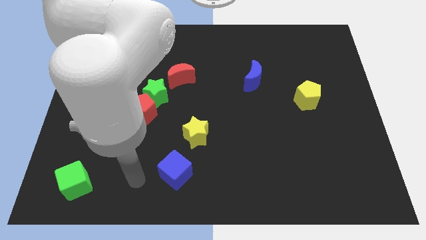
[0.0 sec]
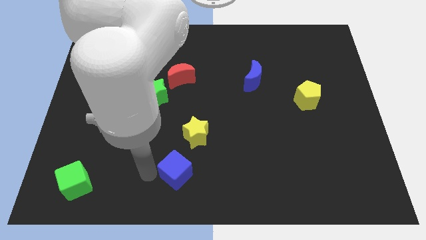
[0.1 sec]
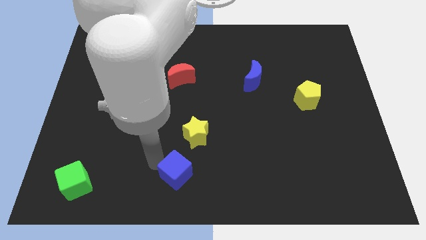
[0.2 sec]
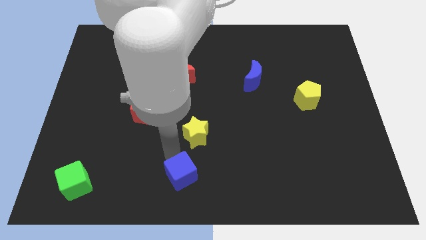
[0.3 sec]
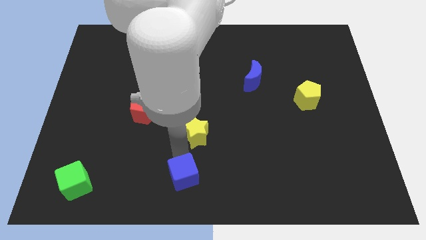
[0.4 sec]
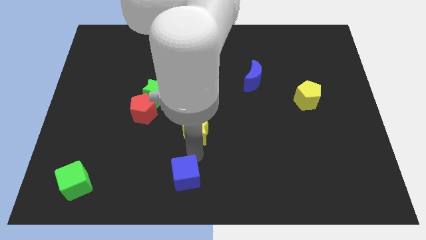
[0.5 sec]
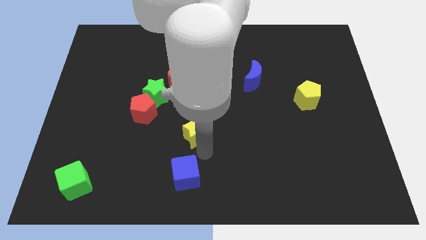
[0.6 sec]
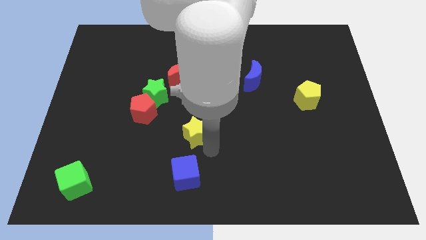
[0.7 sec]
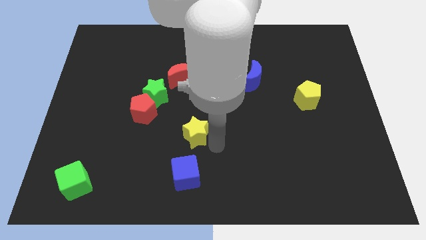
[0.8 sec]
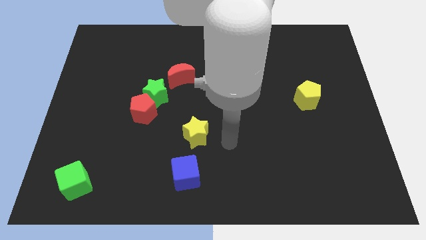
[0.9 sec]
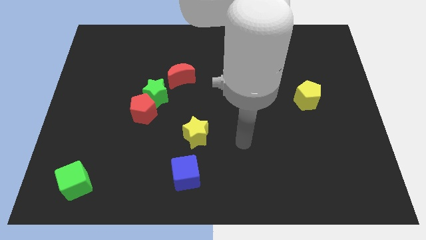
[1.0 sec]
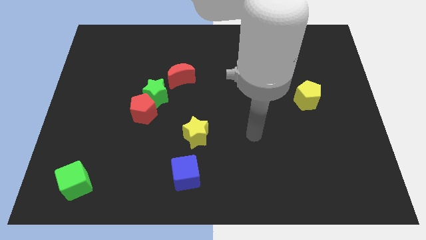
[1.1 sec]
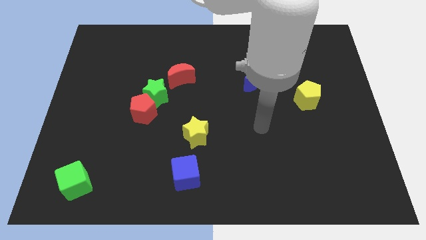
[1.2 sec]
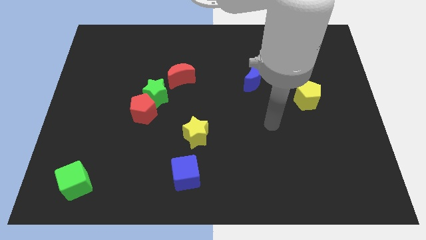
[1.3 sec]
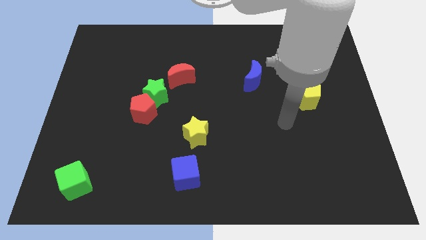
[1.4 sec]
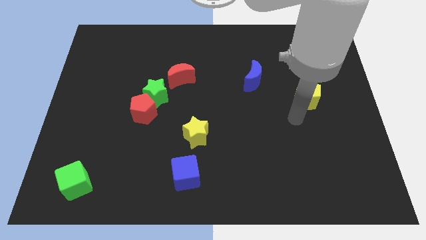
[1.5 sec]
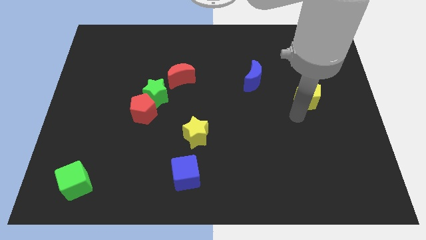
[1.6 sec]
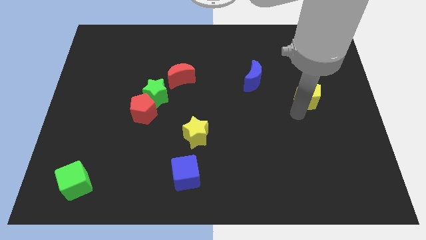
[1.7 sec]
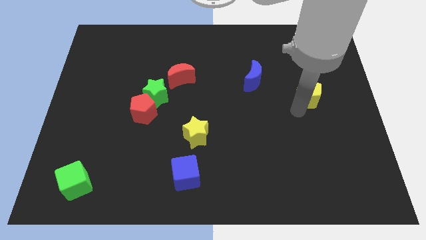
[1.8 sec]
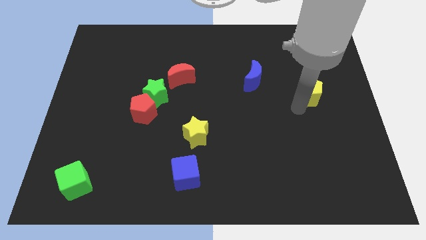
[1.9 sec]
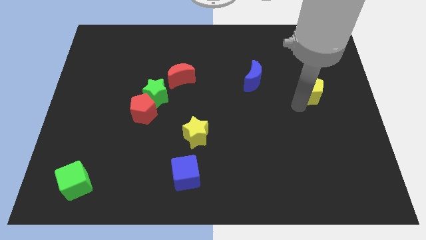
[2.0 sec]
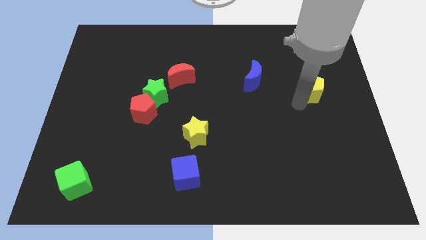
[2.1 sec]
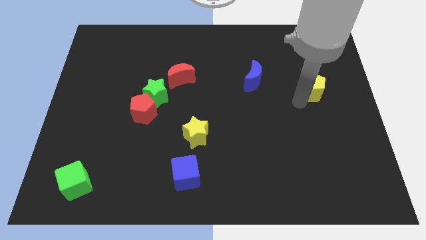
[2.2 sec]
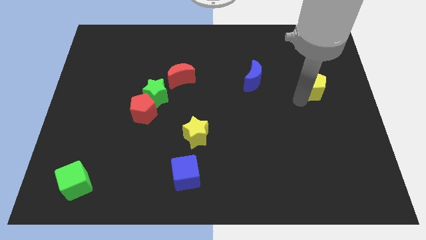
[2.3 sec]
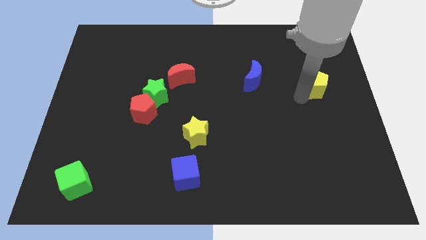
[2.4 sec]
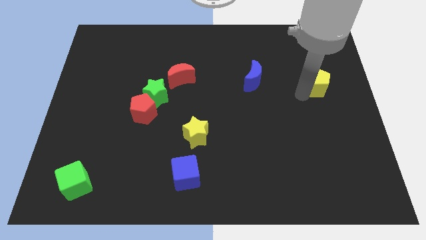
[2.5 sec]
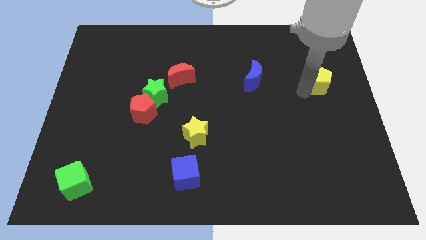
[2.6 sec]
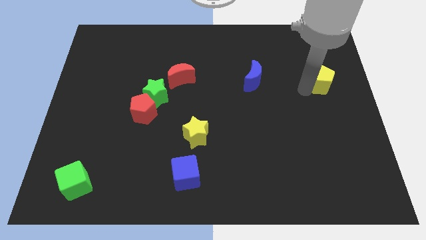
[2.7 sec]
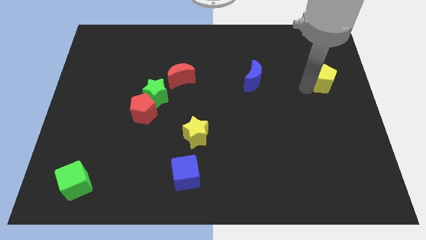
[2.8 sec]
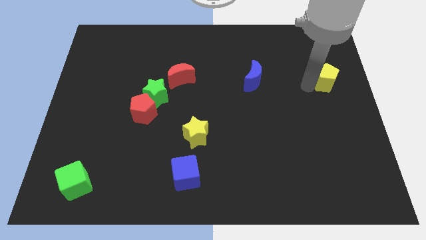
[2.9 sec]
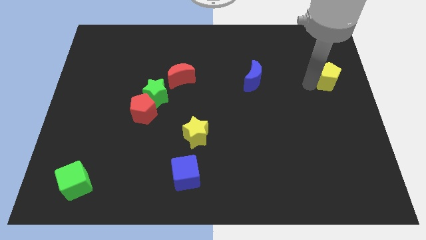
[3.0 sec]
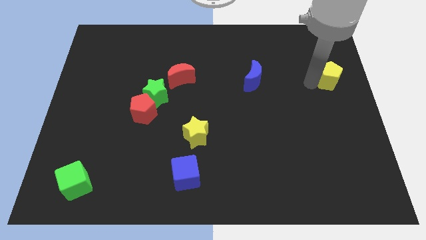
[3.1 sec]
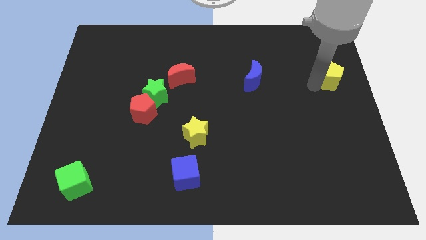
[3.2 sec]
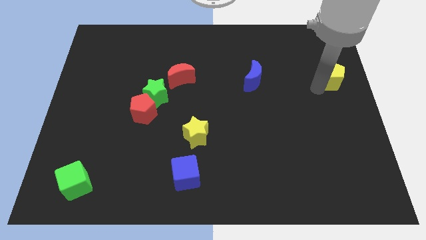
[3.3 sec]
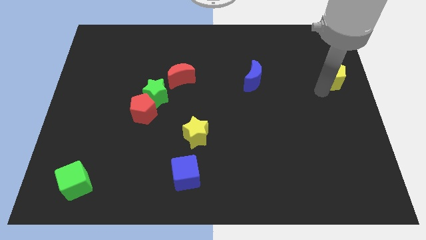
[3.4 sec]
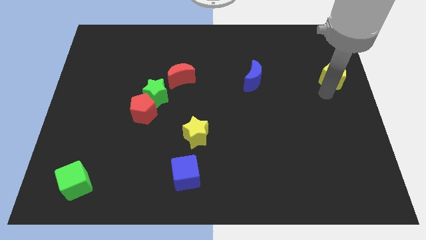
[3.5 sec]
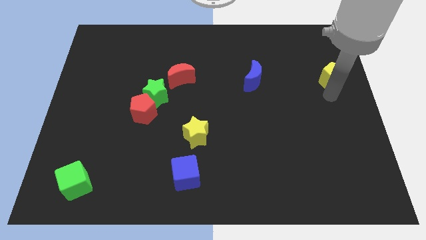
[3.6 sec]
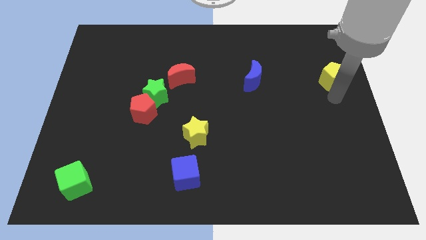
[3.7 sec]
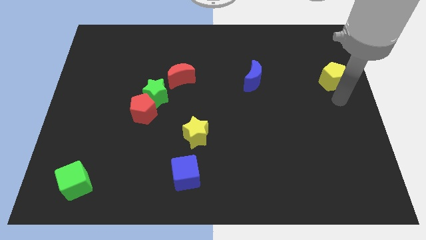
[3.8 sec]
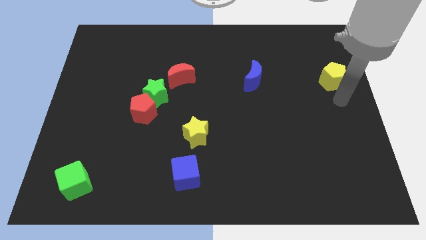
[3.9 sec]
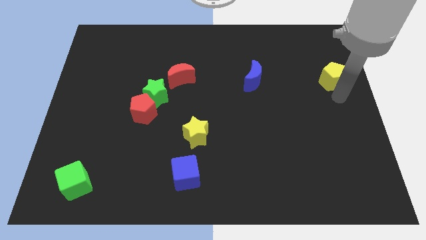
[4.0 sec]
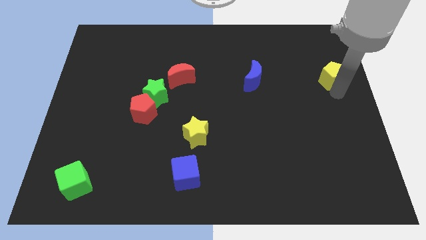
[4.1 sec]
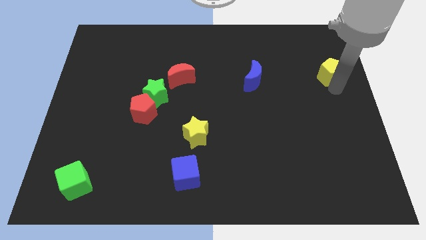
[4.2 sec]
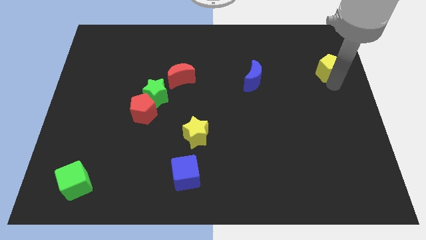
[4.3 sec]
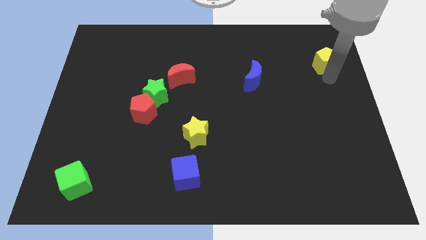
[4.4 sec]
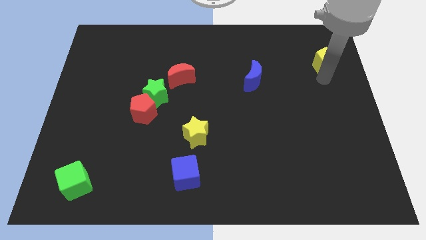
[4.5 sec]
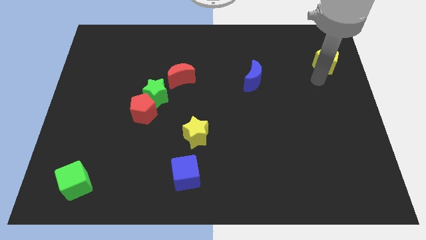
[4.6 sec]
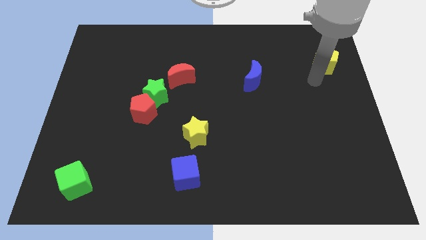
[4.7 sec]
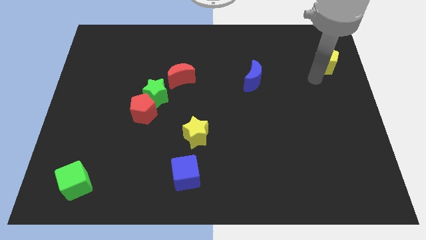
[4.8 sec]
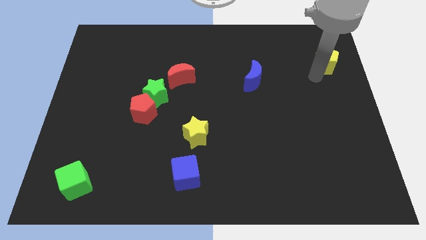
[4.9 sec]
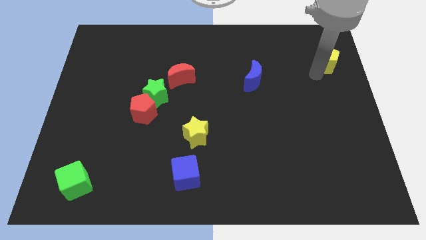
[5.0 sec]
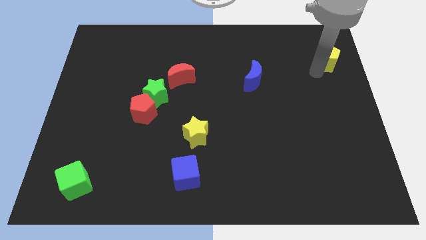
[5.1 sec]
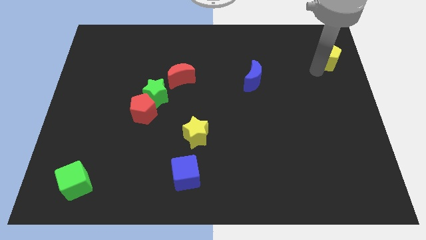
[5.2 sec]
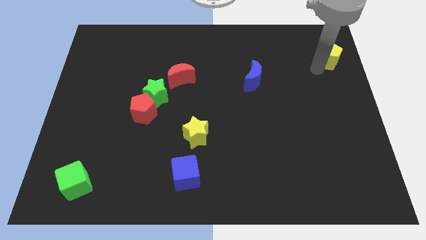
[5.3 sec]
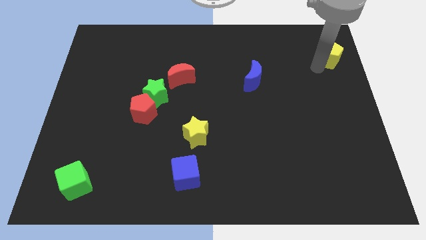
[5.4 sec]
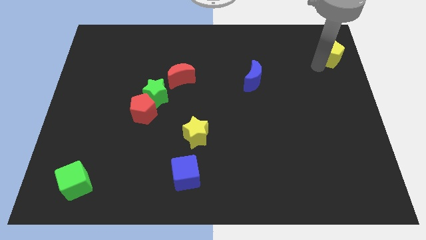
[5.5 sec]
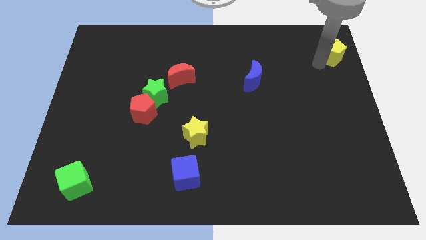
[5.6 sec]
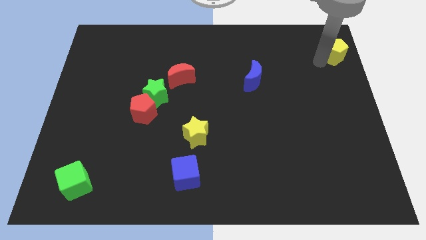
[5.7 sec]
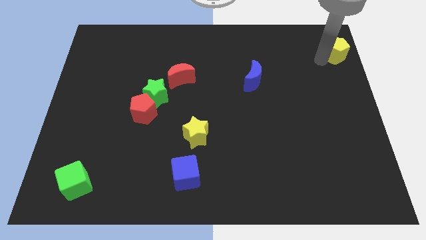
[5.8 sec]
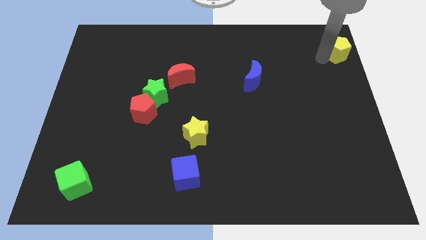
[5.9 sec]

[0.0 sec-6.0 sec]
slide the yellow pentagon to the top right of the board
